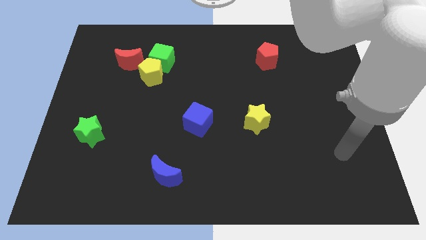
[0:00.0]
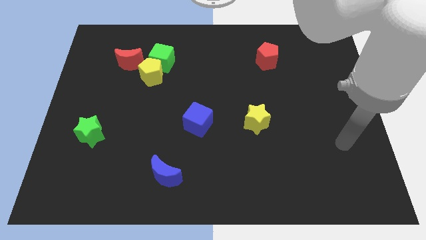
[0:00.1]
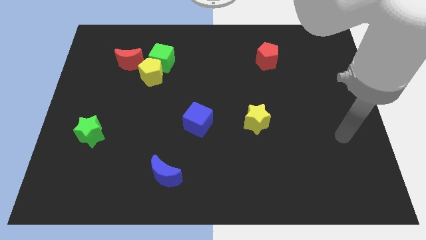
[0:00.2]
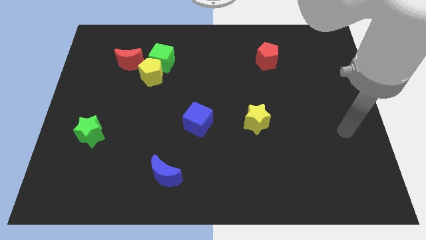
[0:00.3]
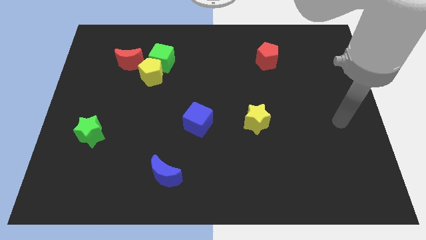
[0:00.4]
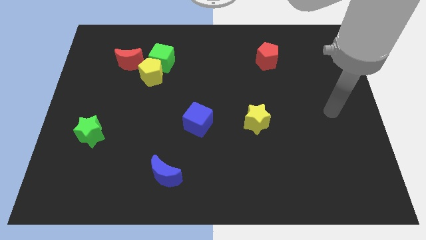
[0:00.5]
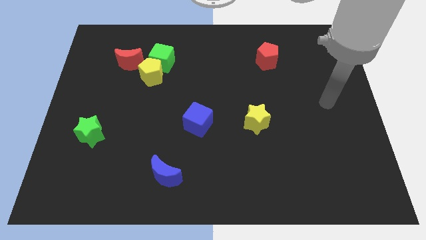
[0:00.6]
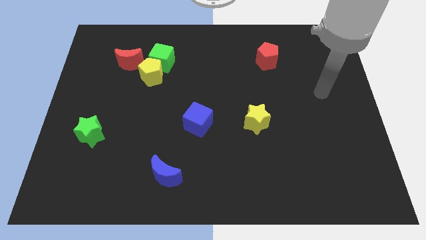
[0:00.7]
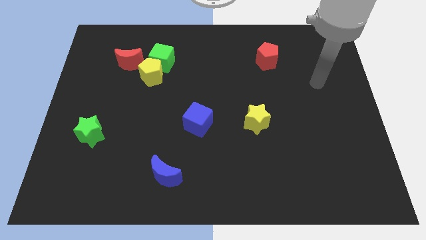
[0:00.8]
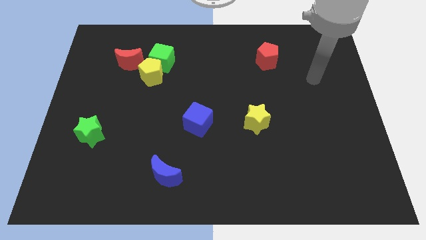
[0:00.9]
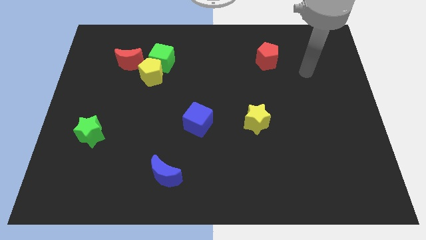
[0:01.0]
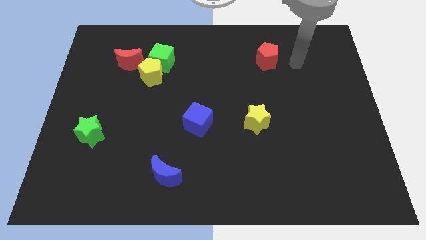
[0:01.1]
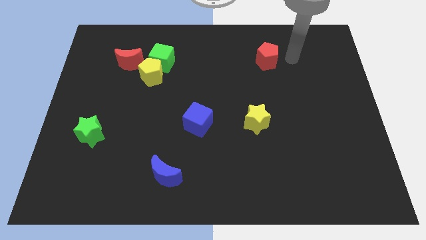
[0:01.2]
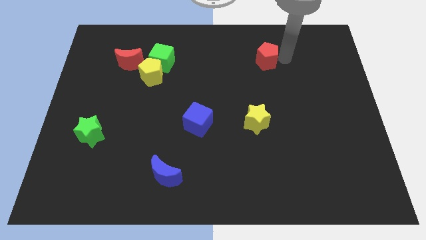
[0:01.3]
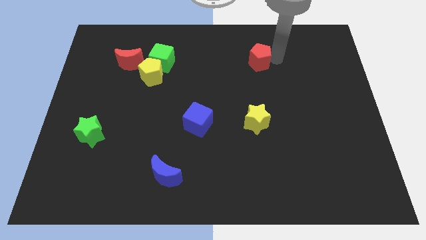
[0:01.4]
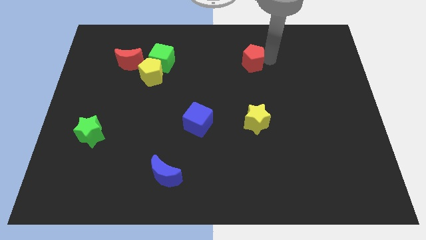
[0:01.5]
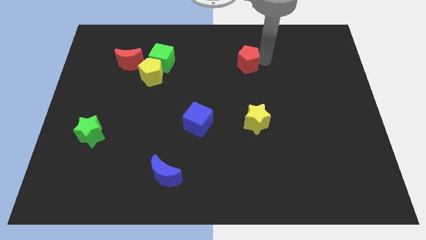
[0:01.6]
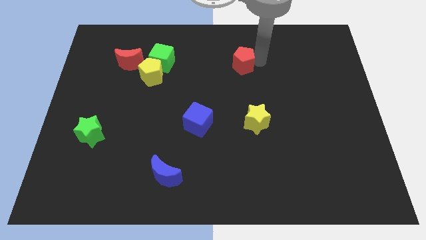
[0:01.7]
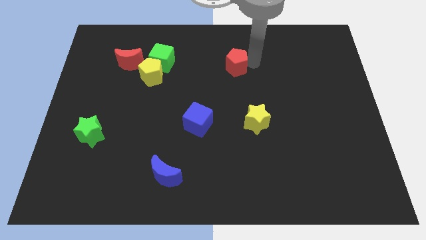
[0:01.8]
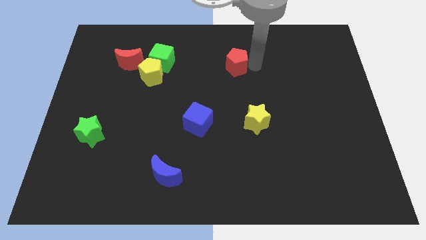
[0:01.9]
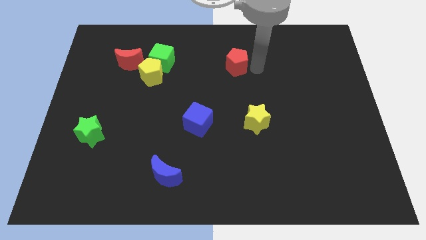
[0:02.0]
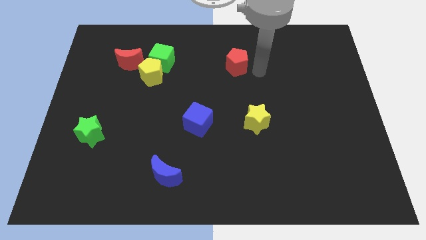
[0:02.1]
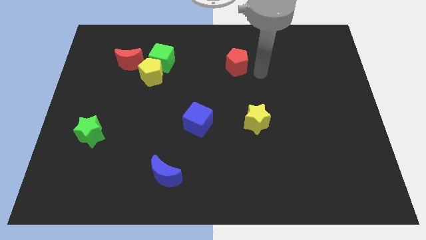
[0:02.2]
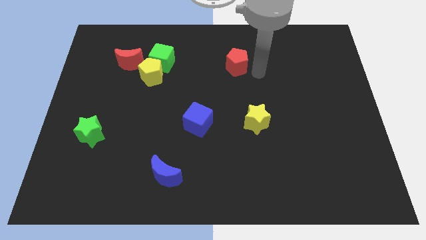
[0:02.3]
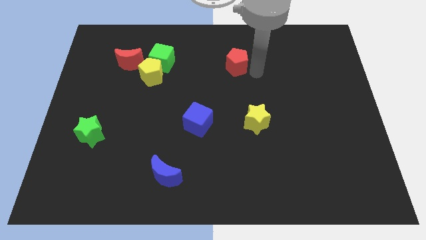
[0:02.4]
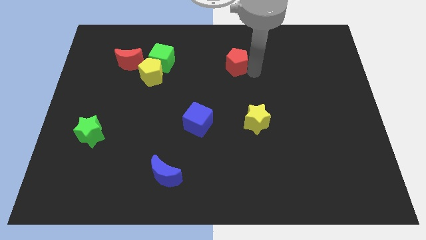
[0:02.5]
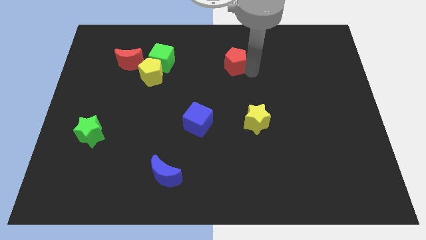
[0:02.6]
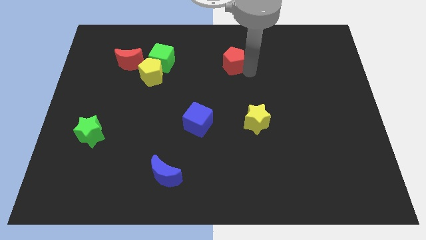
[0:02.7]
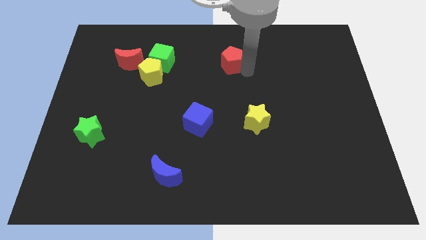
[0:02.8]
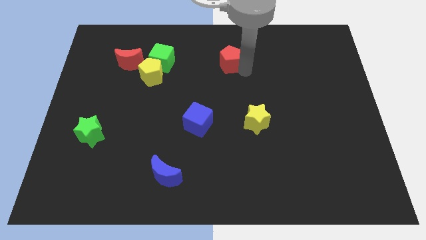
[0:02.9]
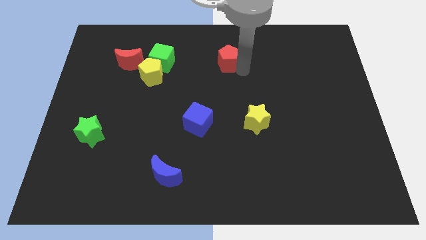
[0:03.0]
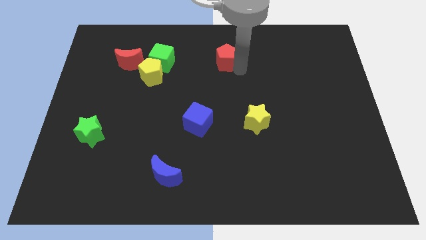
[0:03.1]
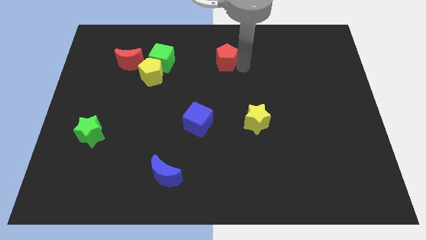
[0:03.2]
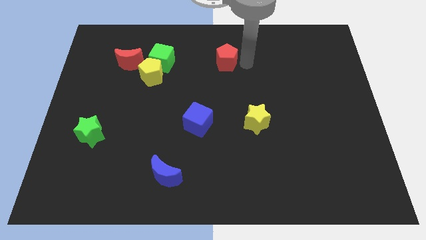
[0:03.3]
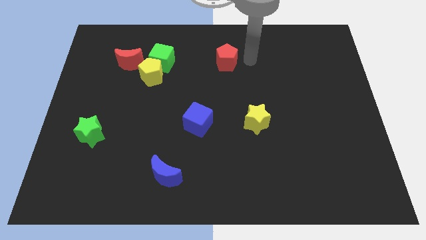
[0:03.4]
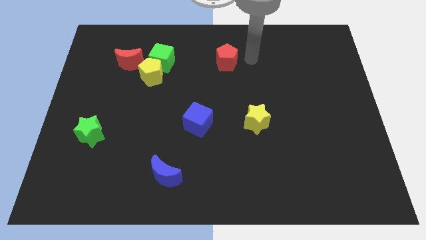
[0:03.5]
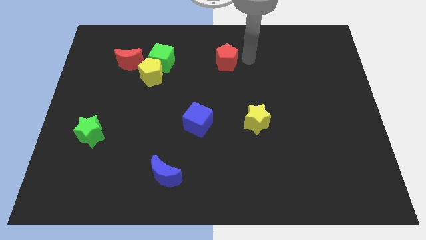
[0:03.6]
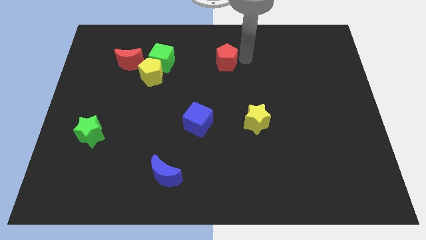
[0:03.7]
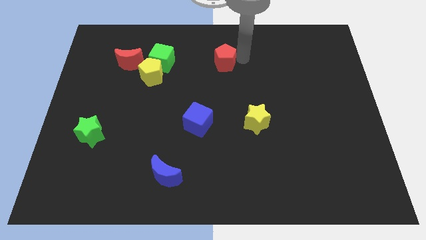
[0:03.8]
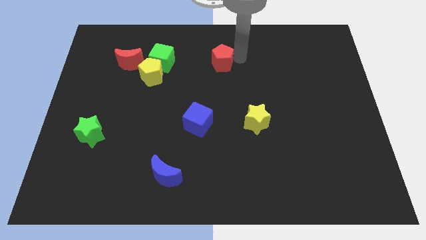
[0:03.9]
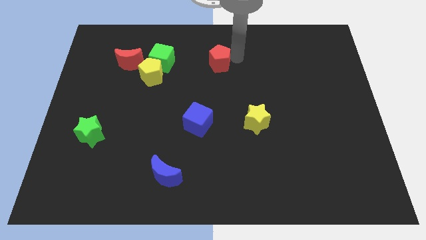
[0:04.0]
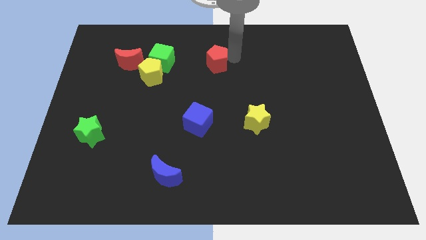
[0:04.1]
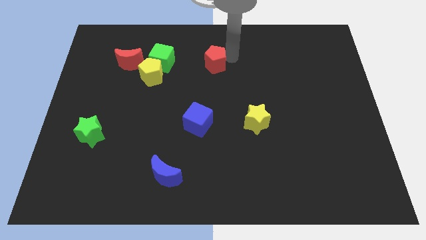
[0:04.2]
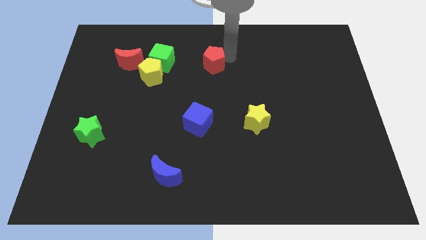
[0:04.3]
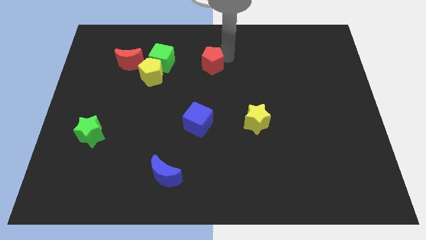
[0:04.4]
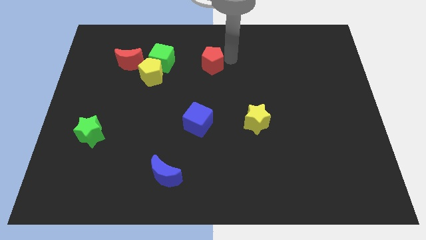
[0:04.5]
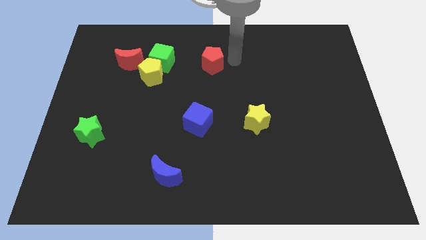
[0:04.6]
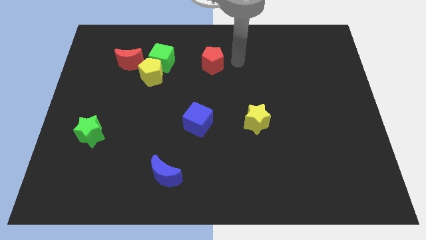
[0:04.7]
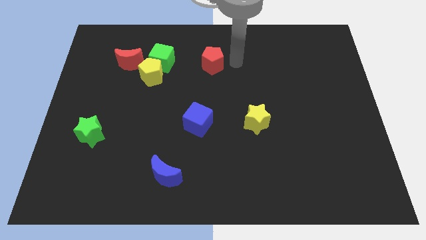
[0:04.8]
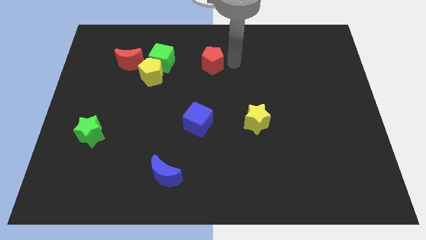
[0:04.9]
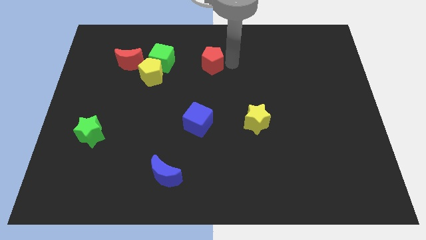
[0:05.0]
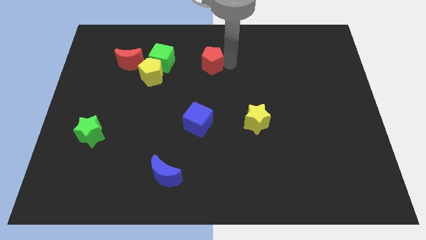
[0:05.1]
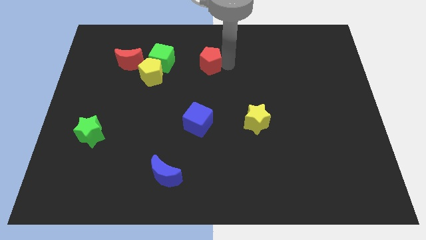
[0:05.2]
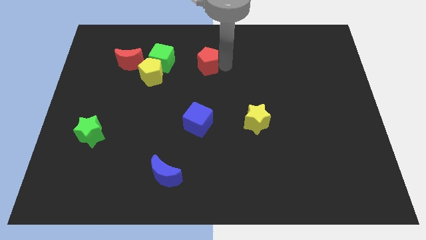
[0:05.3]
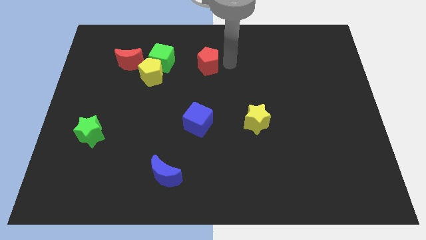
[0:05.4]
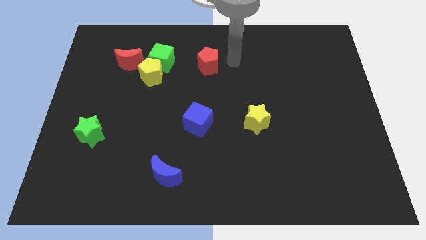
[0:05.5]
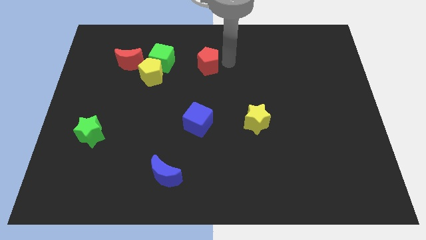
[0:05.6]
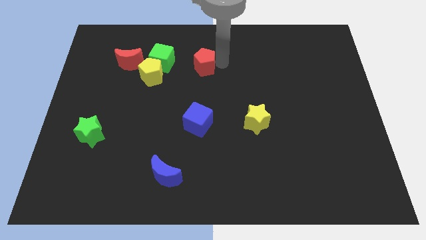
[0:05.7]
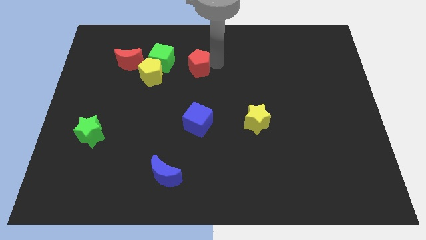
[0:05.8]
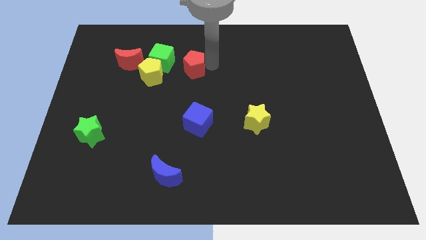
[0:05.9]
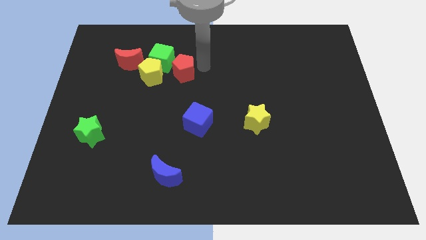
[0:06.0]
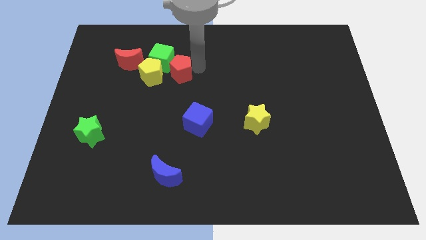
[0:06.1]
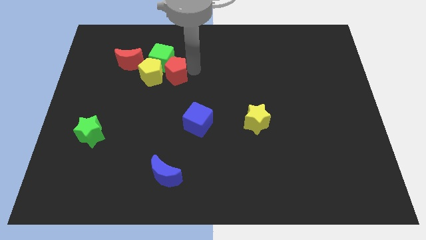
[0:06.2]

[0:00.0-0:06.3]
slide the red pentagon next to the yellow pentagon

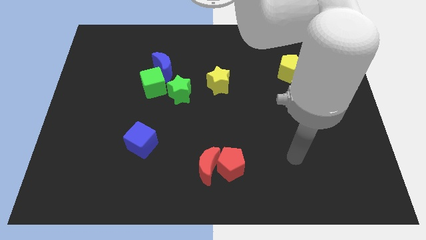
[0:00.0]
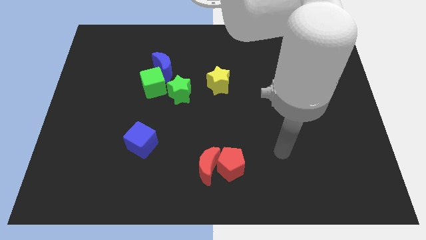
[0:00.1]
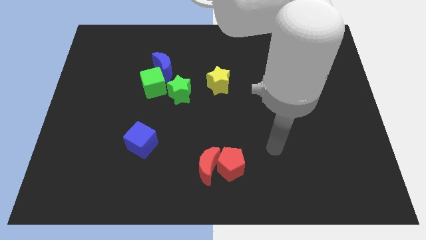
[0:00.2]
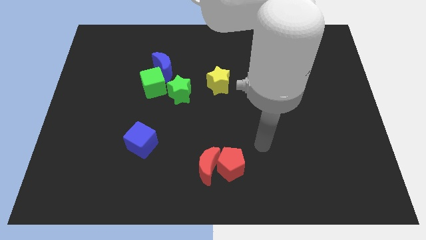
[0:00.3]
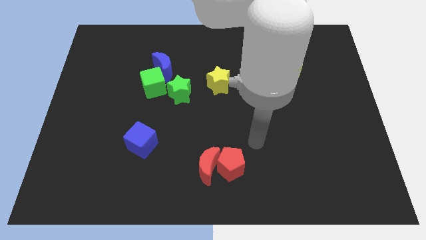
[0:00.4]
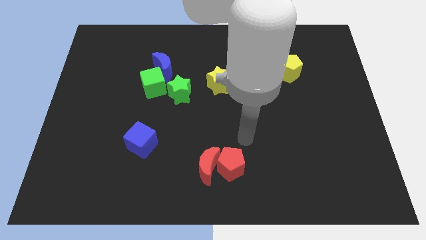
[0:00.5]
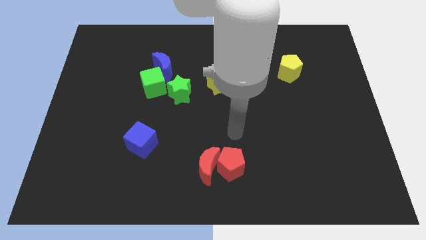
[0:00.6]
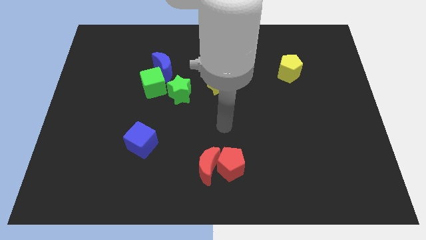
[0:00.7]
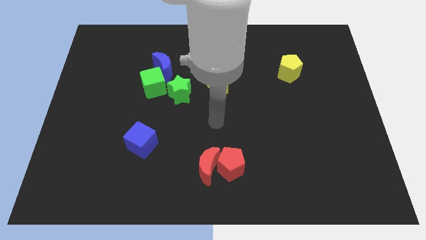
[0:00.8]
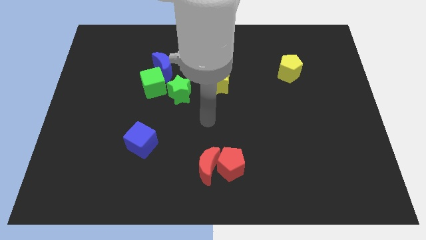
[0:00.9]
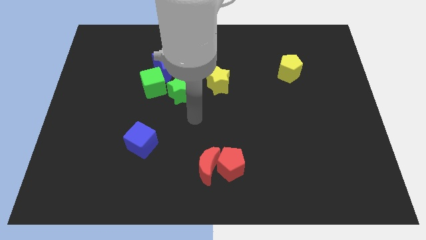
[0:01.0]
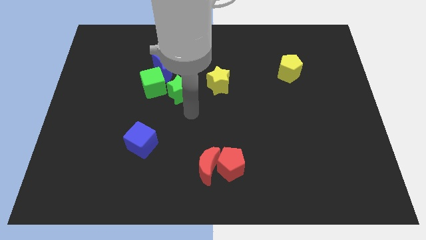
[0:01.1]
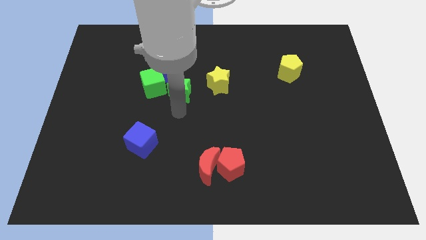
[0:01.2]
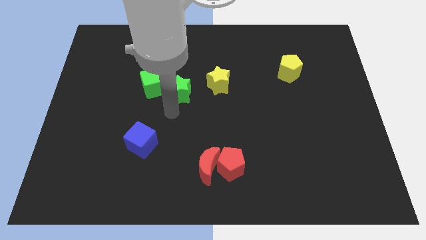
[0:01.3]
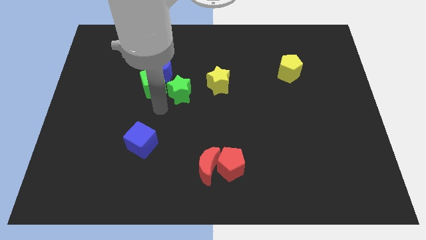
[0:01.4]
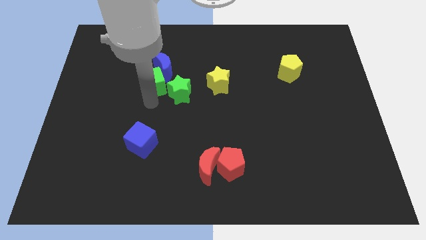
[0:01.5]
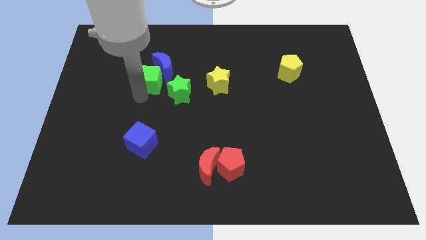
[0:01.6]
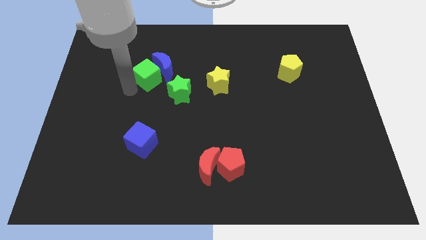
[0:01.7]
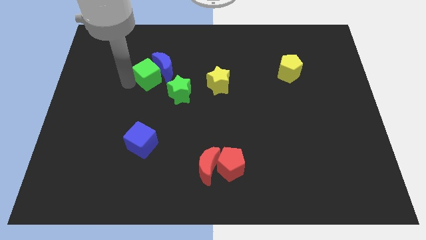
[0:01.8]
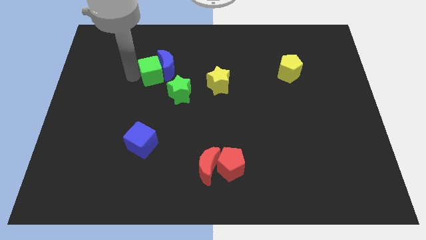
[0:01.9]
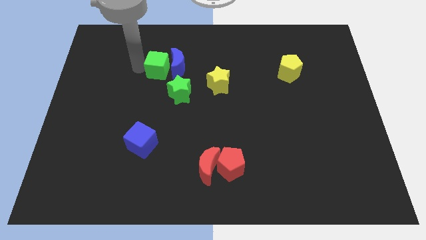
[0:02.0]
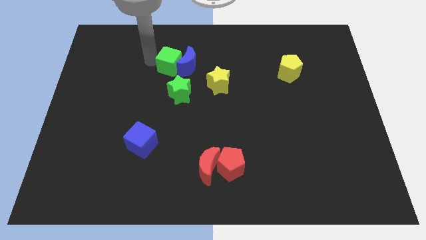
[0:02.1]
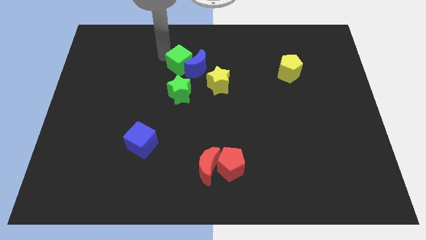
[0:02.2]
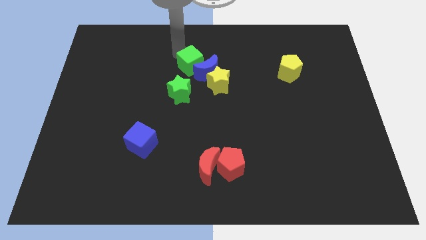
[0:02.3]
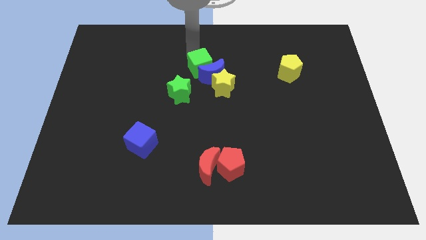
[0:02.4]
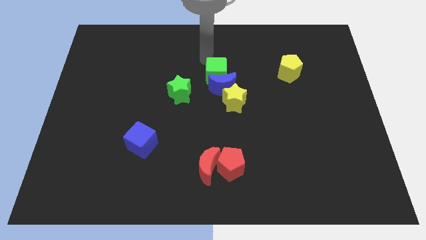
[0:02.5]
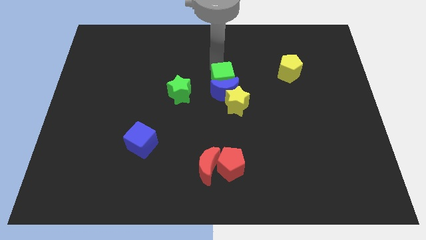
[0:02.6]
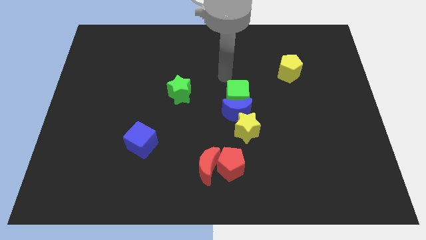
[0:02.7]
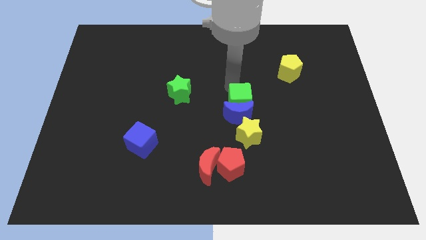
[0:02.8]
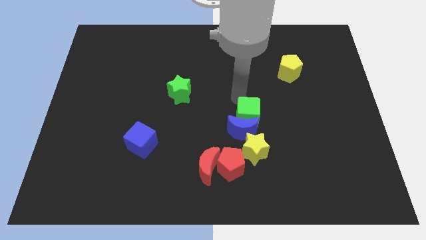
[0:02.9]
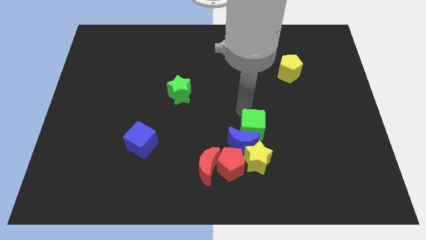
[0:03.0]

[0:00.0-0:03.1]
slide the blue moon to the red pentagon
